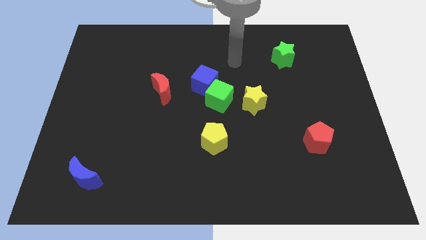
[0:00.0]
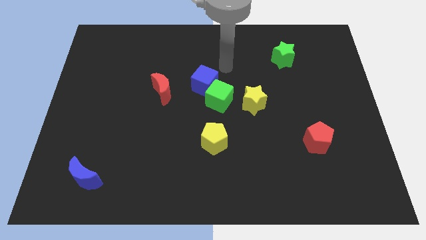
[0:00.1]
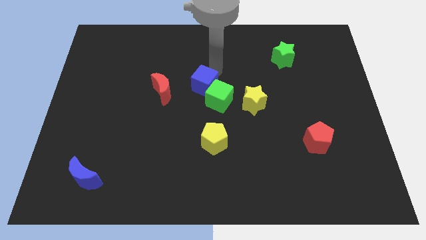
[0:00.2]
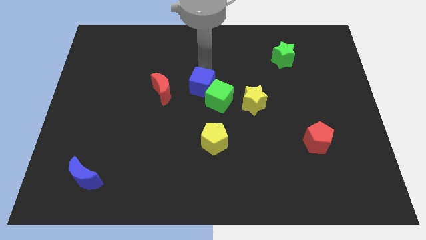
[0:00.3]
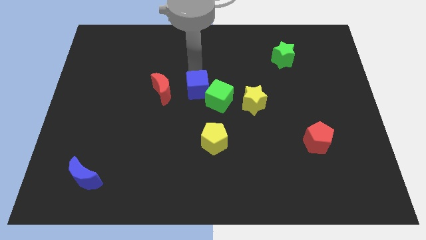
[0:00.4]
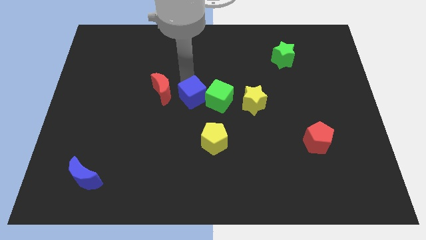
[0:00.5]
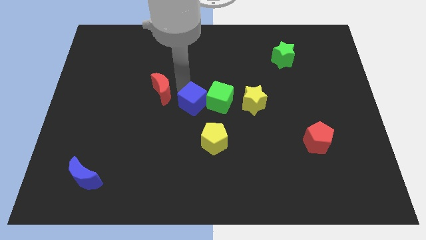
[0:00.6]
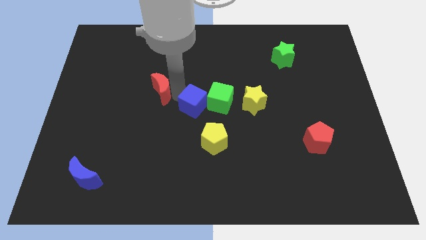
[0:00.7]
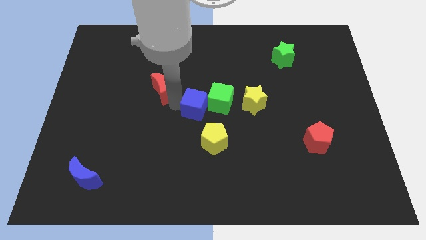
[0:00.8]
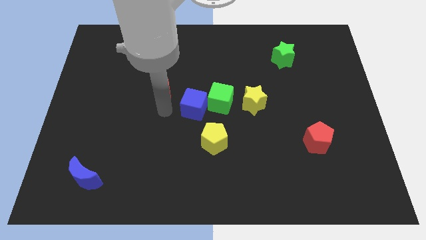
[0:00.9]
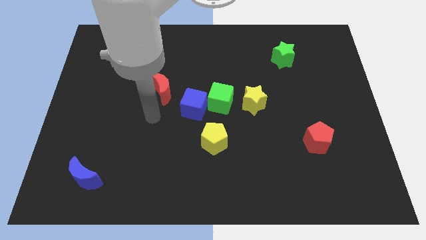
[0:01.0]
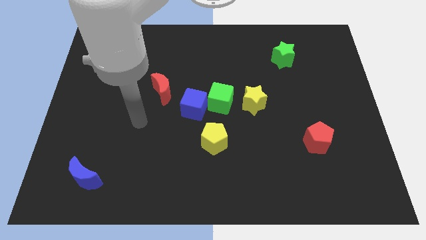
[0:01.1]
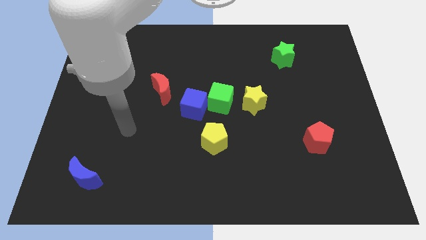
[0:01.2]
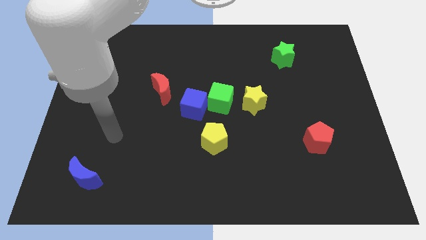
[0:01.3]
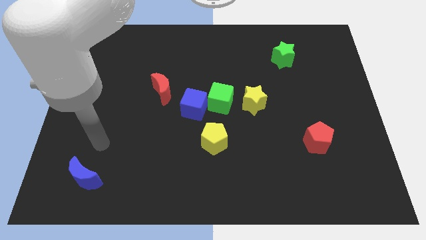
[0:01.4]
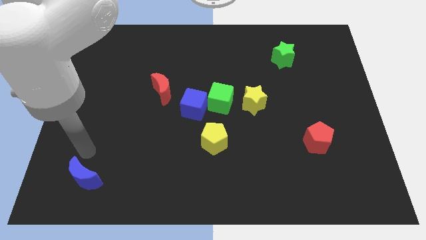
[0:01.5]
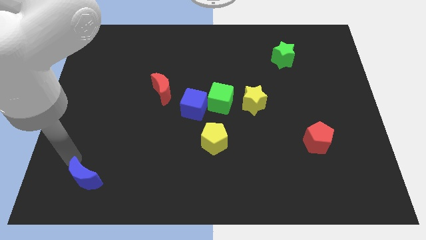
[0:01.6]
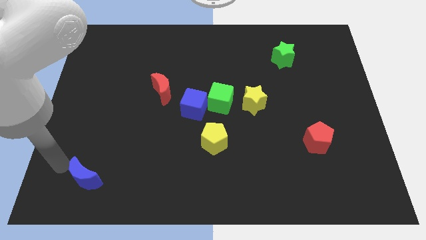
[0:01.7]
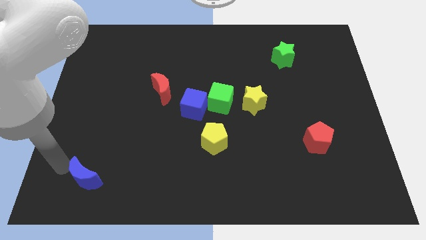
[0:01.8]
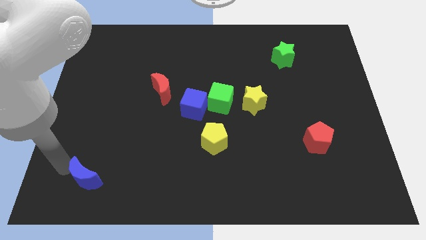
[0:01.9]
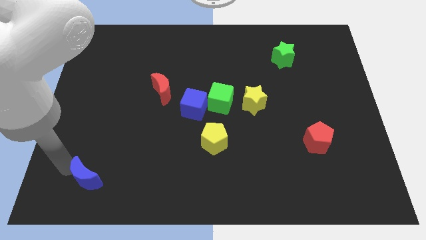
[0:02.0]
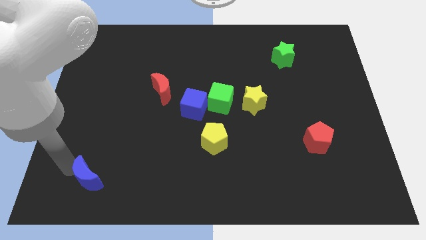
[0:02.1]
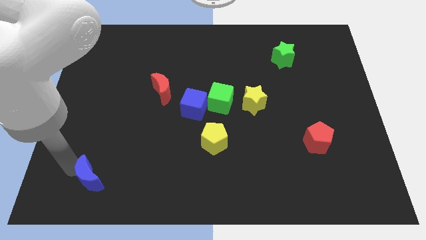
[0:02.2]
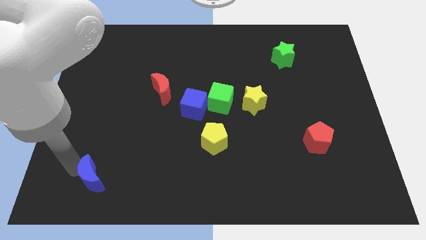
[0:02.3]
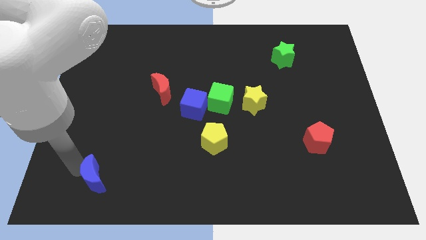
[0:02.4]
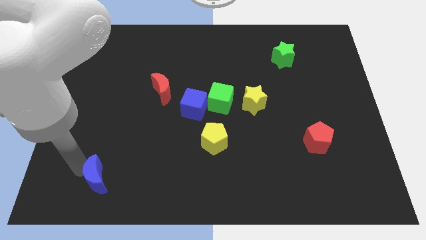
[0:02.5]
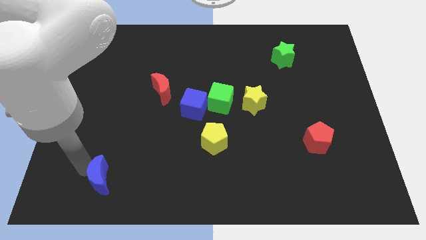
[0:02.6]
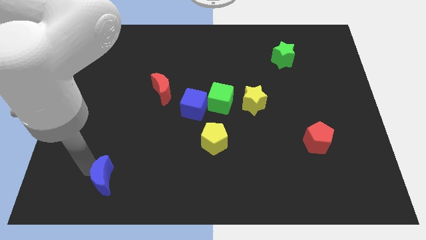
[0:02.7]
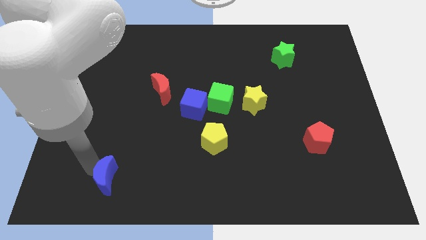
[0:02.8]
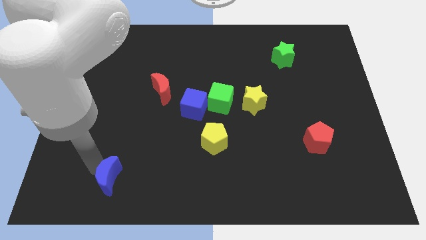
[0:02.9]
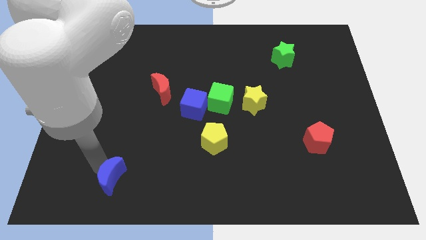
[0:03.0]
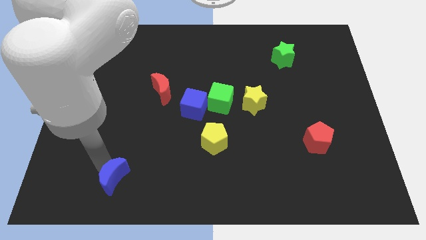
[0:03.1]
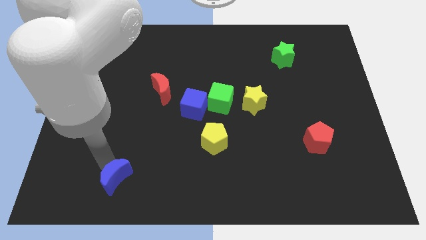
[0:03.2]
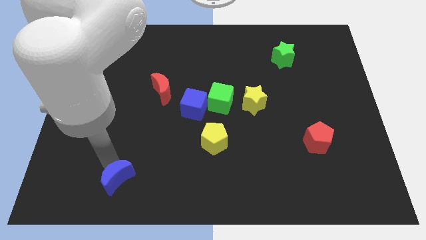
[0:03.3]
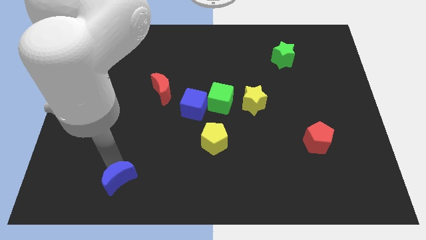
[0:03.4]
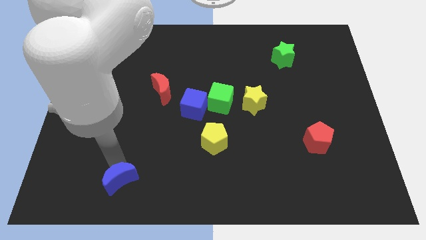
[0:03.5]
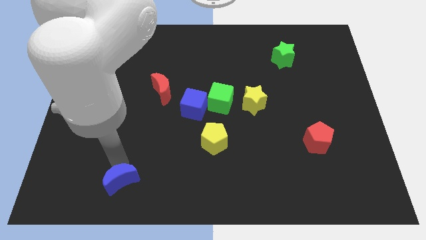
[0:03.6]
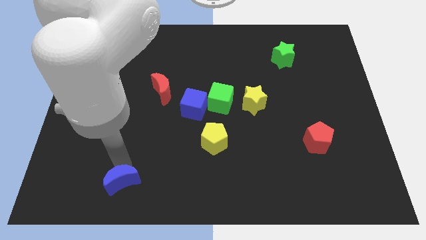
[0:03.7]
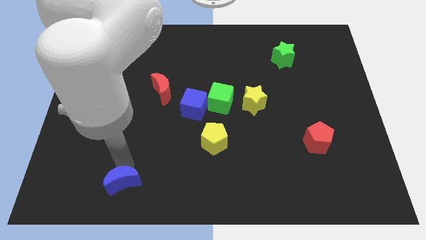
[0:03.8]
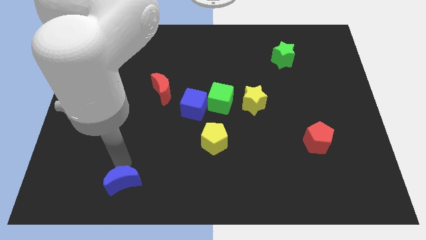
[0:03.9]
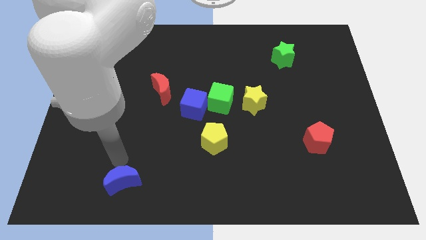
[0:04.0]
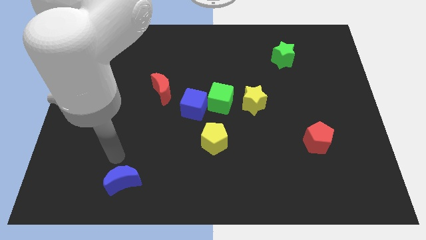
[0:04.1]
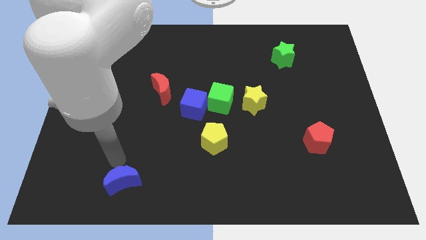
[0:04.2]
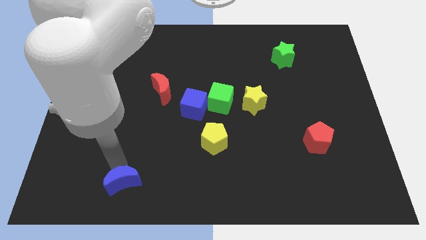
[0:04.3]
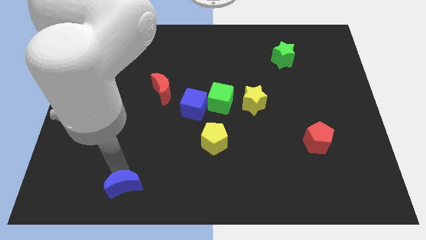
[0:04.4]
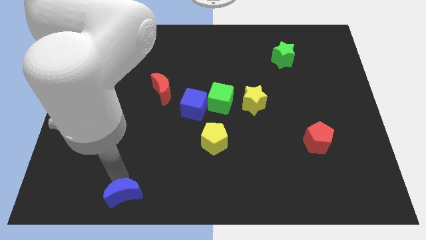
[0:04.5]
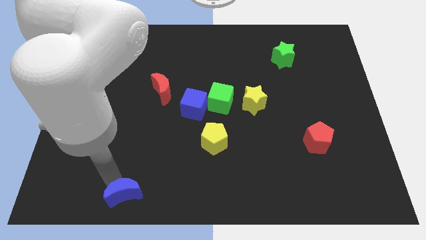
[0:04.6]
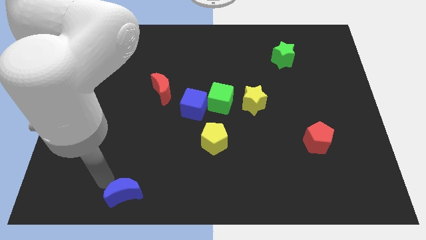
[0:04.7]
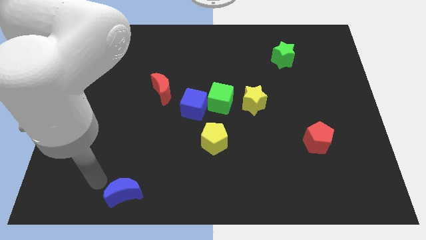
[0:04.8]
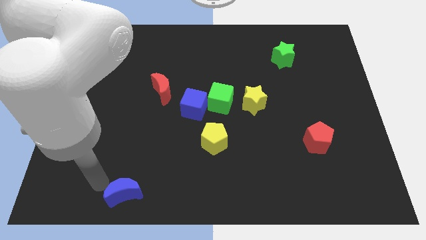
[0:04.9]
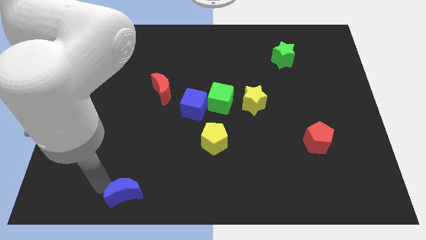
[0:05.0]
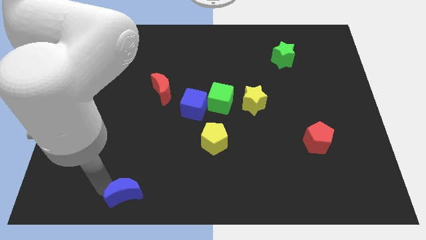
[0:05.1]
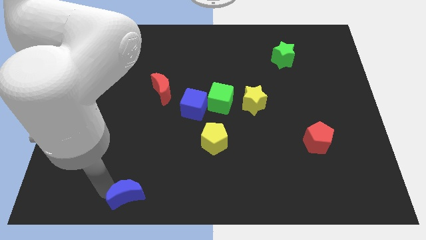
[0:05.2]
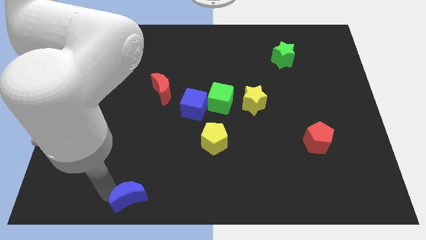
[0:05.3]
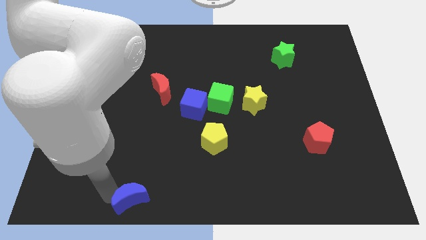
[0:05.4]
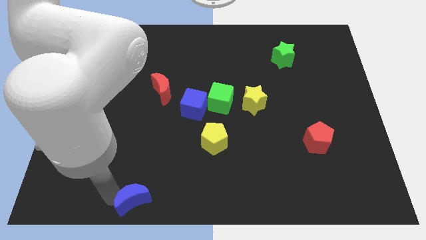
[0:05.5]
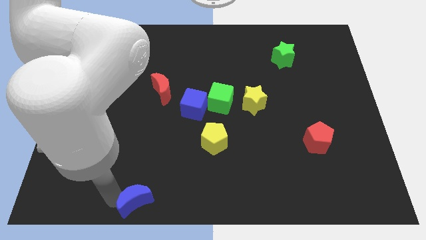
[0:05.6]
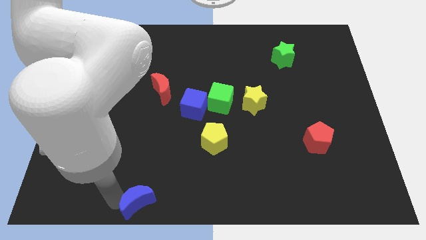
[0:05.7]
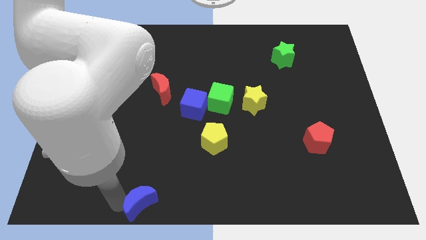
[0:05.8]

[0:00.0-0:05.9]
slide the blue moon to the bottom

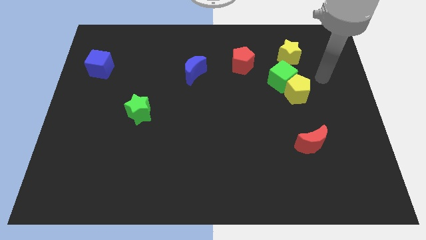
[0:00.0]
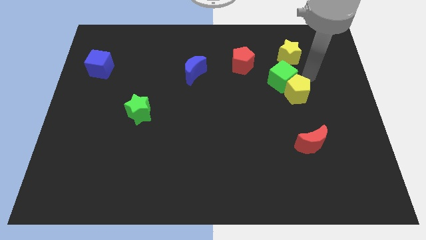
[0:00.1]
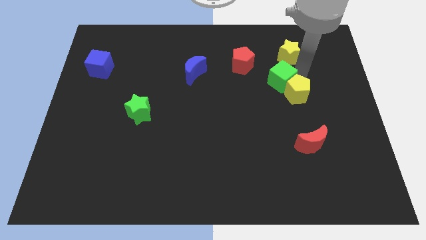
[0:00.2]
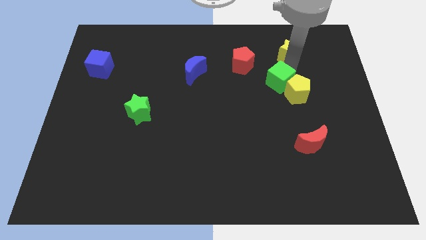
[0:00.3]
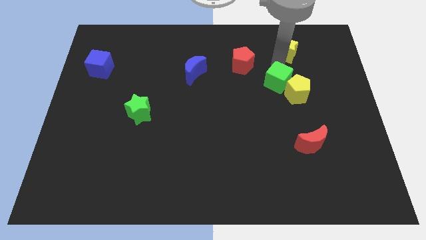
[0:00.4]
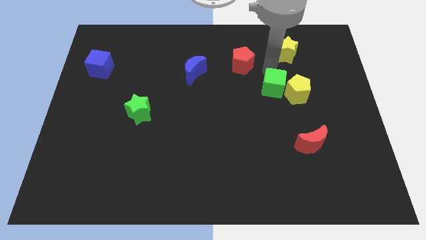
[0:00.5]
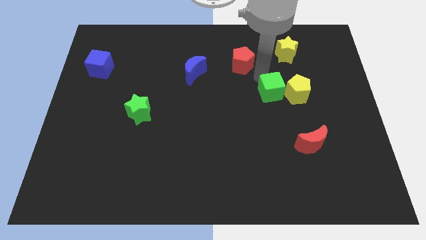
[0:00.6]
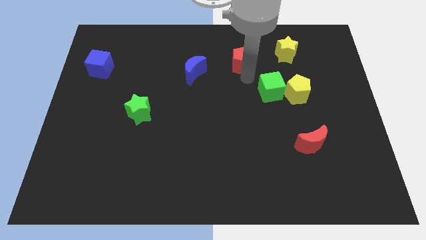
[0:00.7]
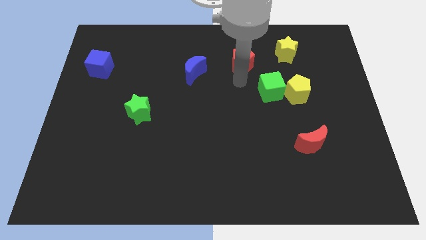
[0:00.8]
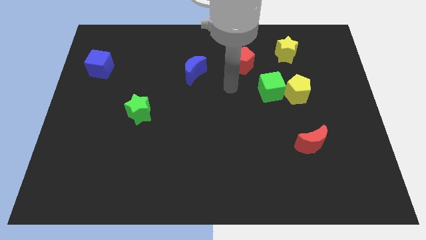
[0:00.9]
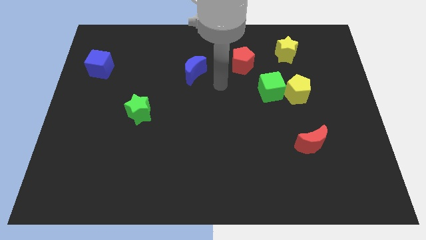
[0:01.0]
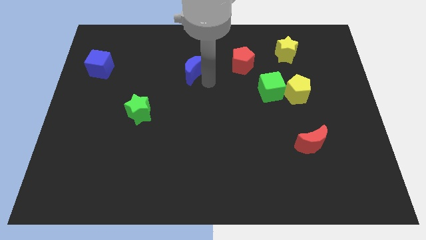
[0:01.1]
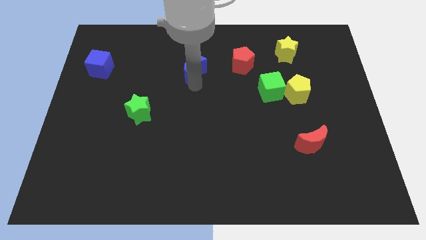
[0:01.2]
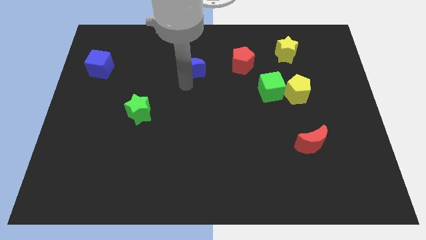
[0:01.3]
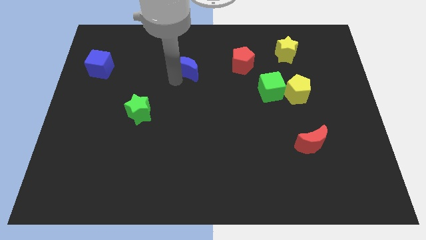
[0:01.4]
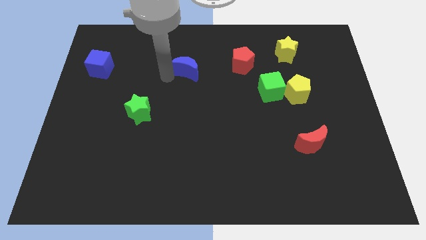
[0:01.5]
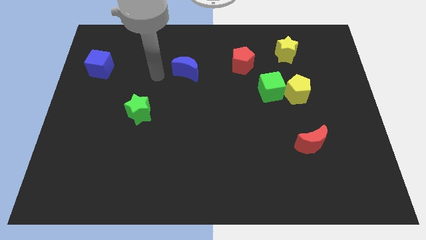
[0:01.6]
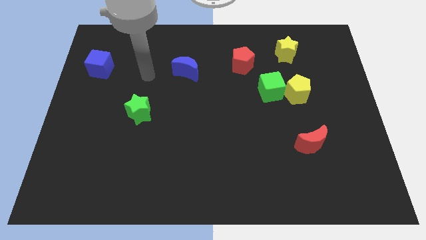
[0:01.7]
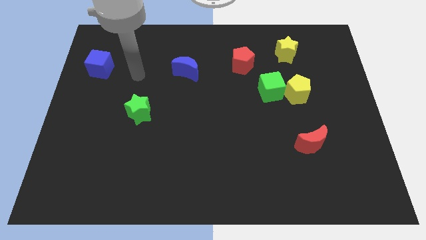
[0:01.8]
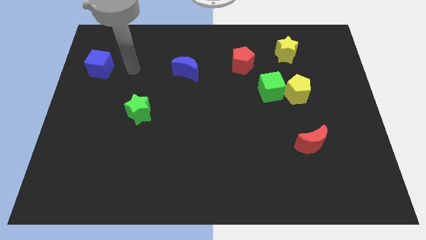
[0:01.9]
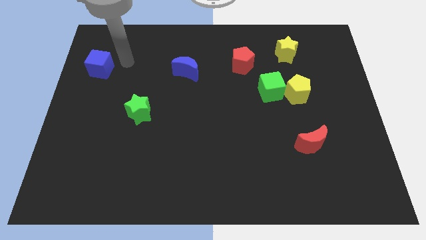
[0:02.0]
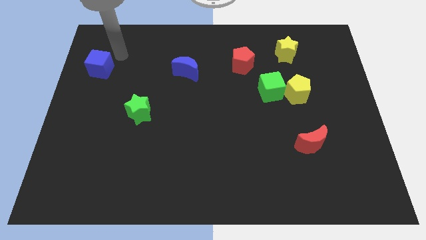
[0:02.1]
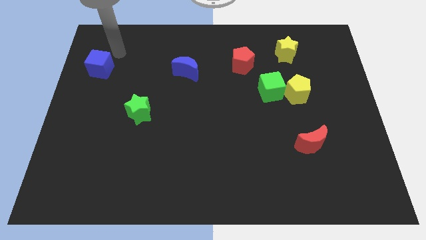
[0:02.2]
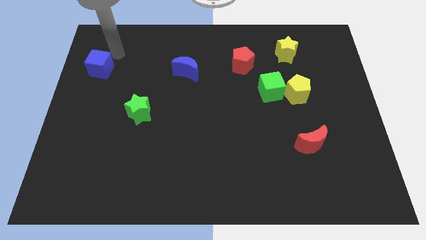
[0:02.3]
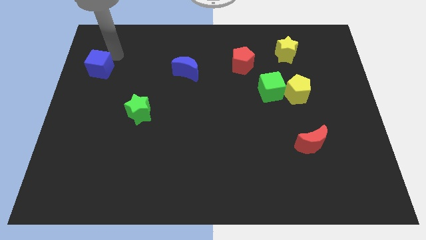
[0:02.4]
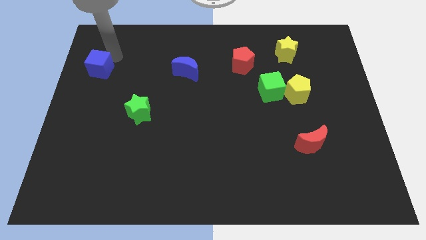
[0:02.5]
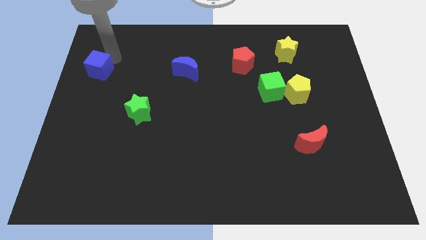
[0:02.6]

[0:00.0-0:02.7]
put the blue cube to the center left
